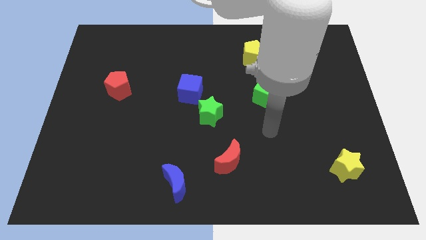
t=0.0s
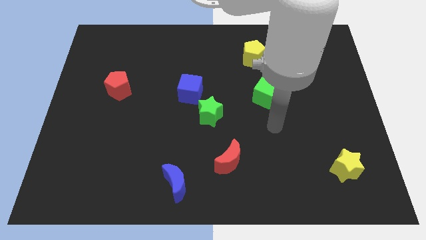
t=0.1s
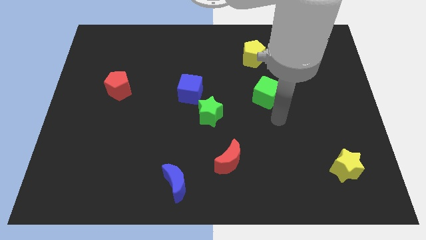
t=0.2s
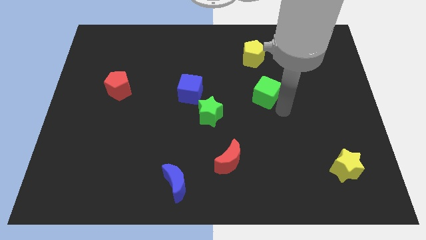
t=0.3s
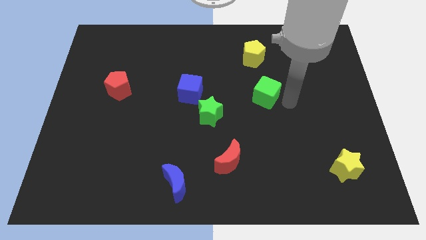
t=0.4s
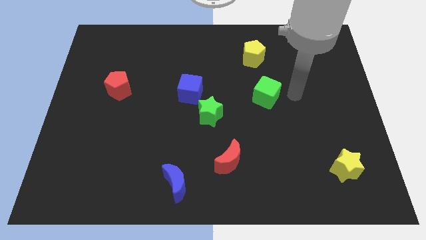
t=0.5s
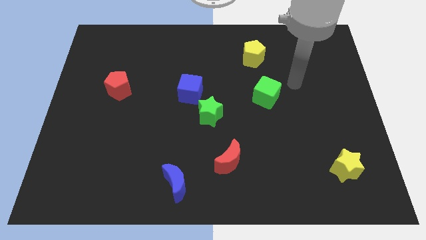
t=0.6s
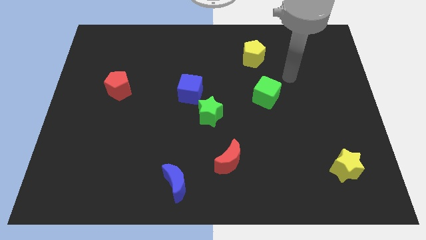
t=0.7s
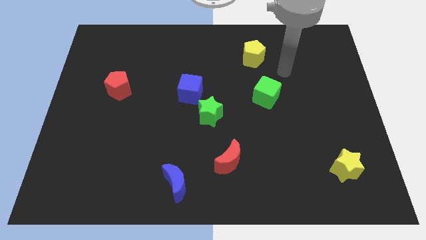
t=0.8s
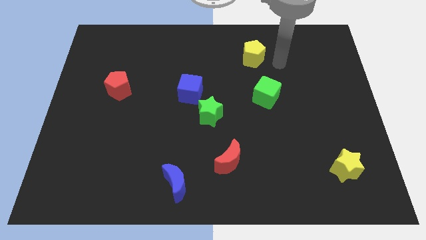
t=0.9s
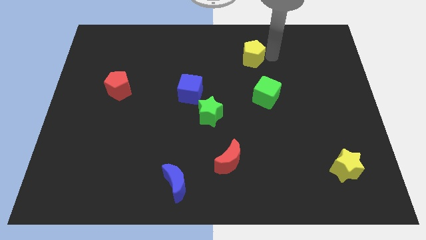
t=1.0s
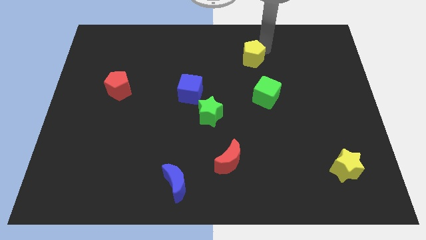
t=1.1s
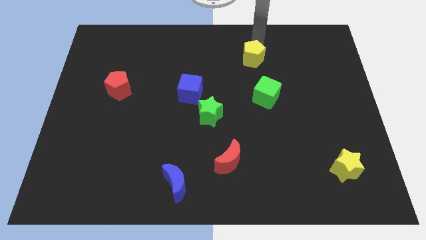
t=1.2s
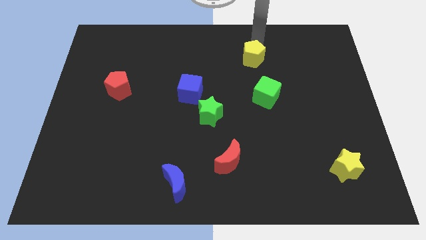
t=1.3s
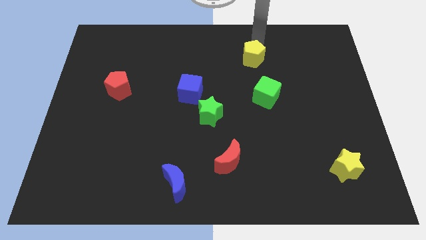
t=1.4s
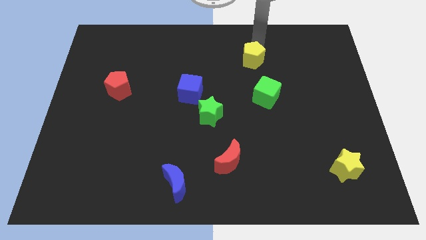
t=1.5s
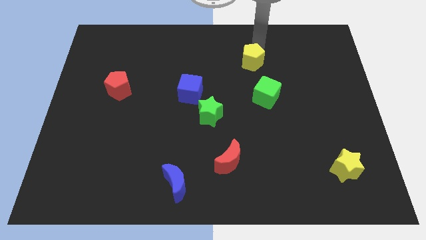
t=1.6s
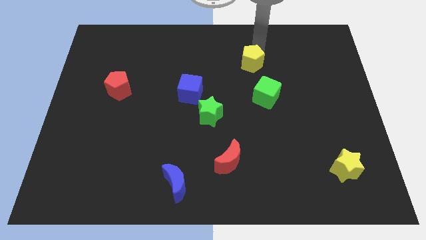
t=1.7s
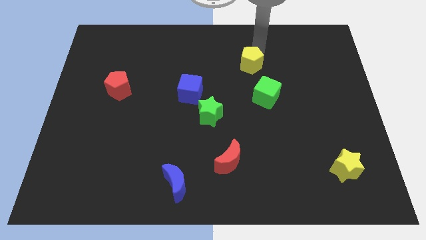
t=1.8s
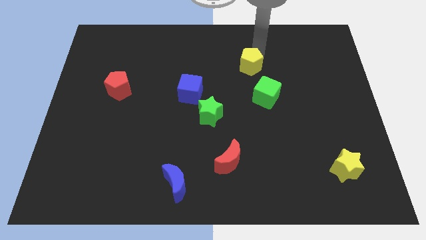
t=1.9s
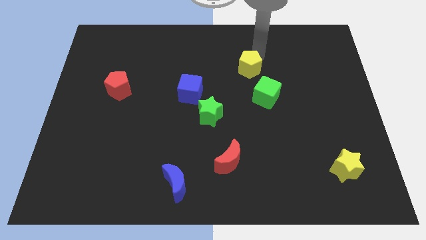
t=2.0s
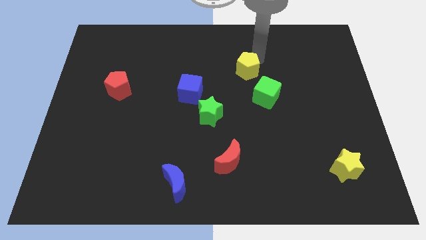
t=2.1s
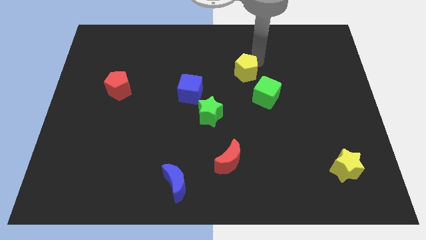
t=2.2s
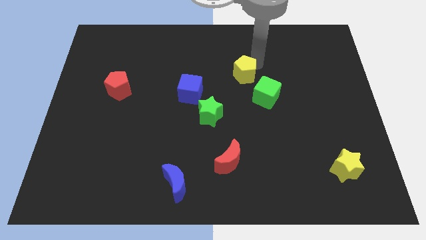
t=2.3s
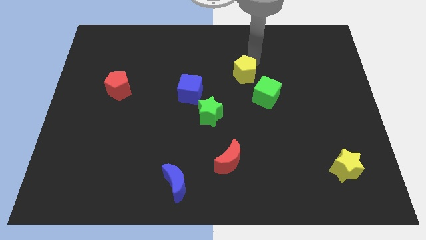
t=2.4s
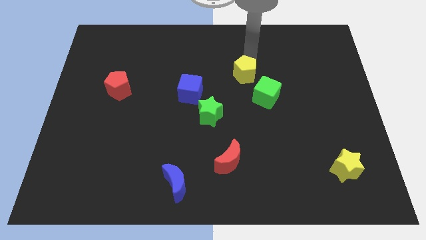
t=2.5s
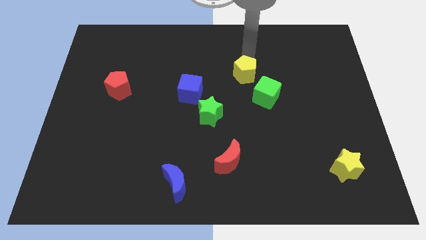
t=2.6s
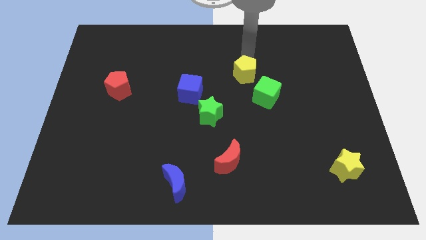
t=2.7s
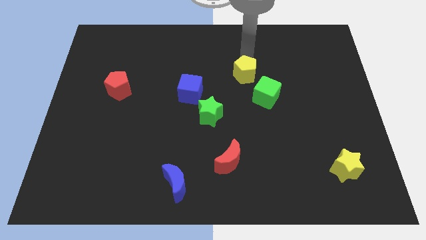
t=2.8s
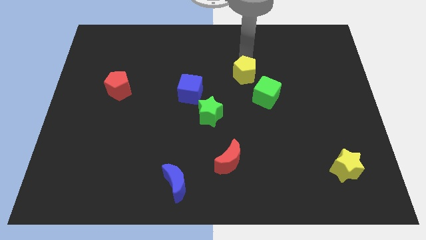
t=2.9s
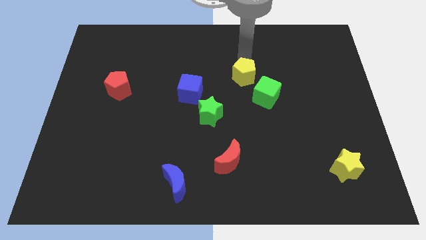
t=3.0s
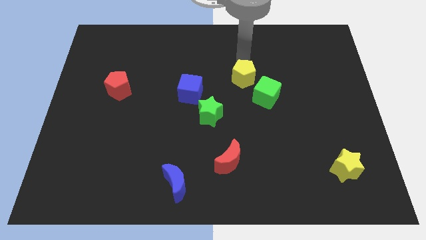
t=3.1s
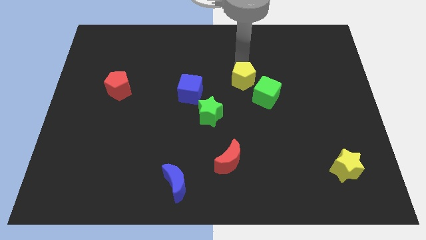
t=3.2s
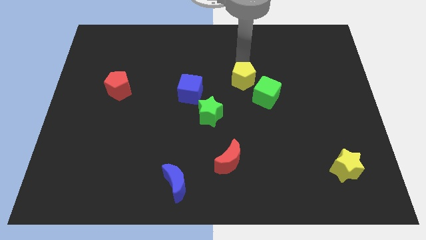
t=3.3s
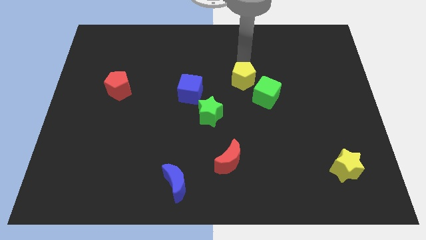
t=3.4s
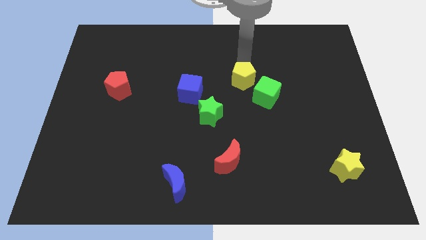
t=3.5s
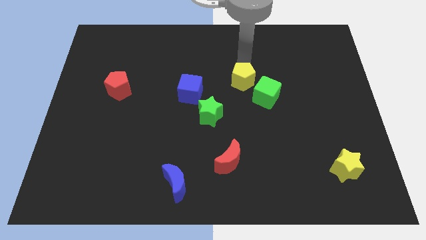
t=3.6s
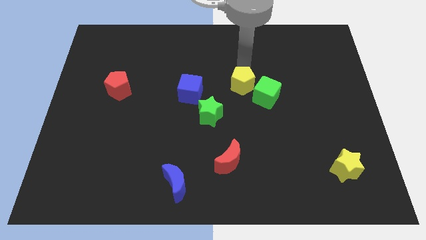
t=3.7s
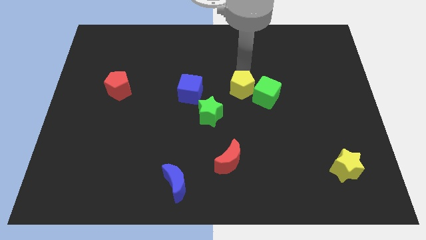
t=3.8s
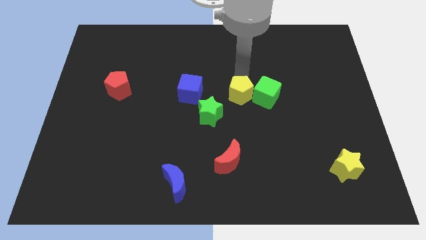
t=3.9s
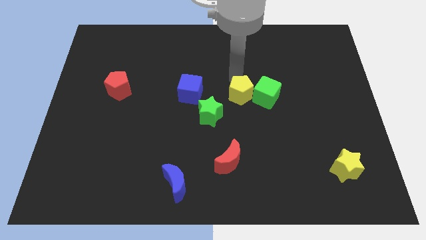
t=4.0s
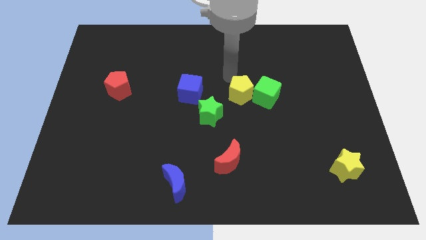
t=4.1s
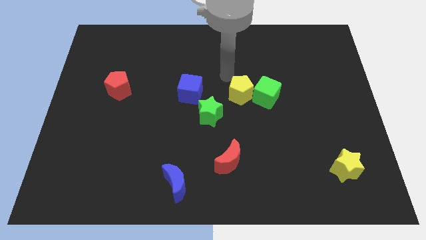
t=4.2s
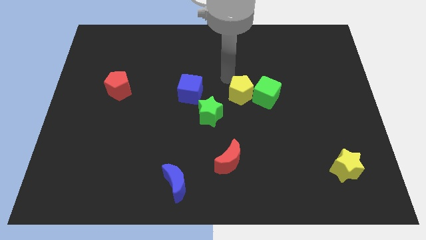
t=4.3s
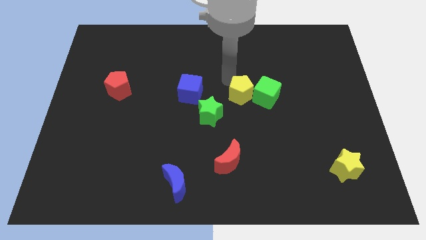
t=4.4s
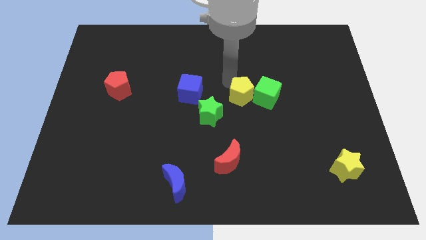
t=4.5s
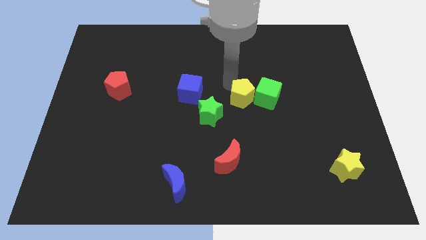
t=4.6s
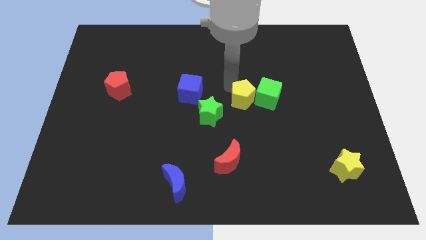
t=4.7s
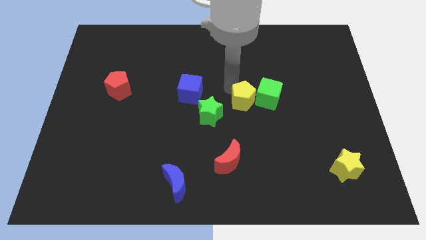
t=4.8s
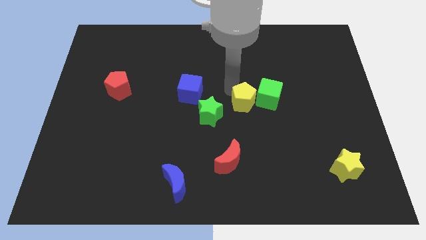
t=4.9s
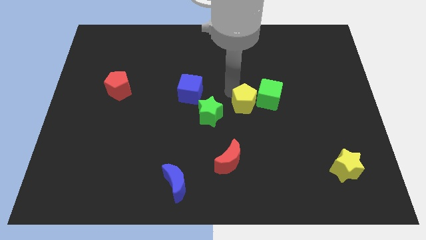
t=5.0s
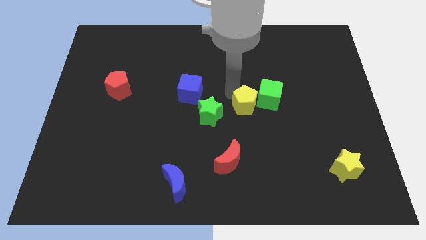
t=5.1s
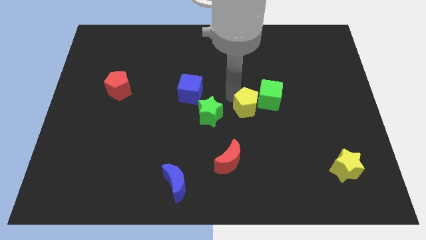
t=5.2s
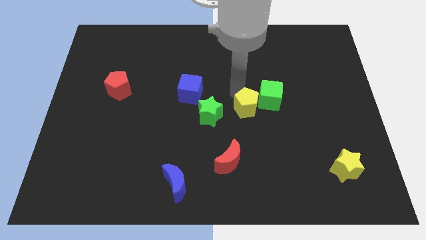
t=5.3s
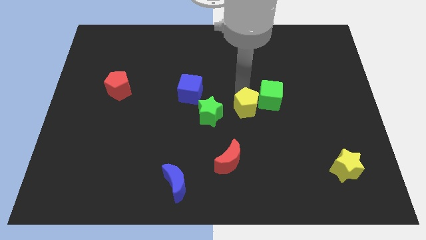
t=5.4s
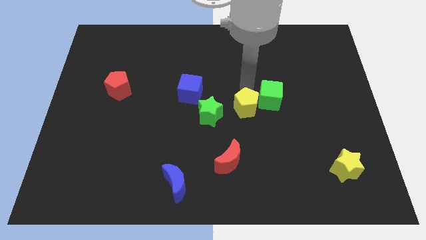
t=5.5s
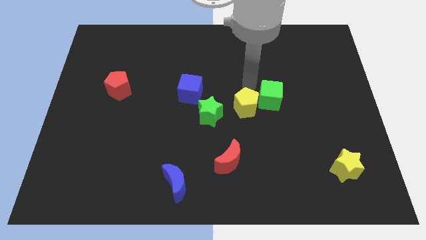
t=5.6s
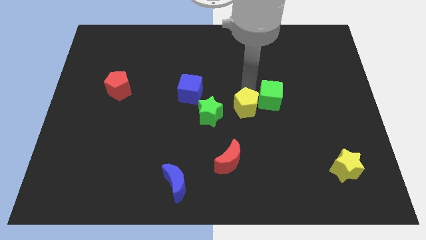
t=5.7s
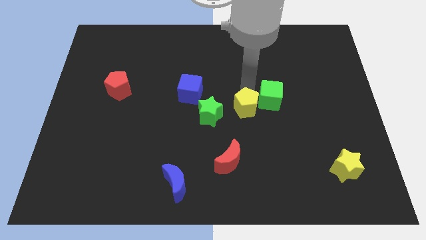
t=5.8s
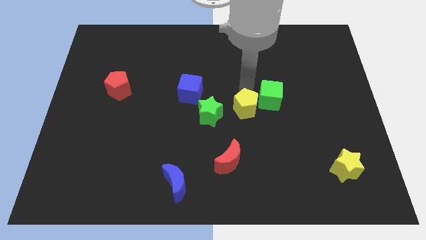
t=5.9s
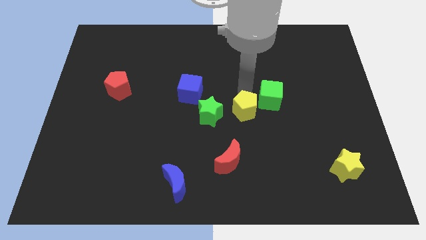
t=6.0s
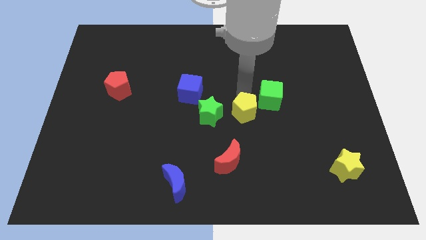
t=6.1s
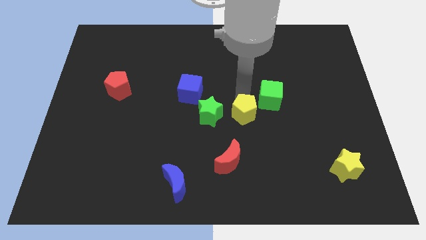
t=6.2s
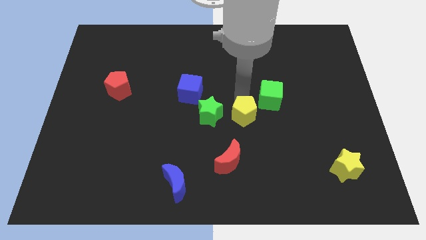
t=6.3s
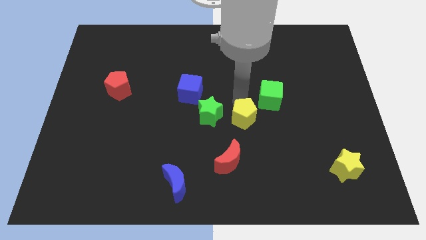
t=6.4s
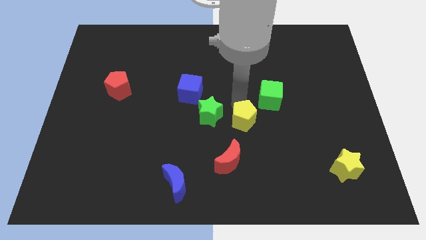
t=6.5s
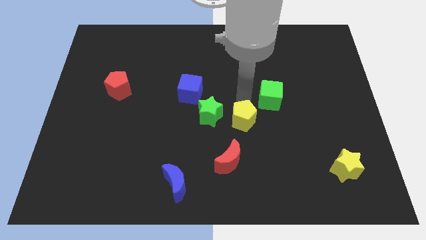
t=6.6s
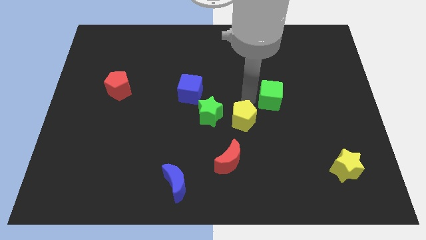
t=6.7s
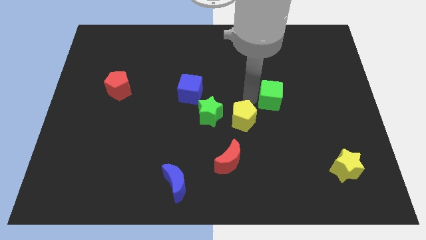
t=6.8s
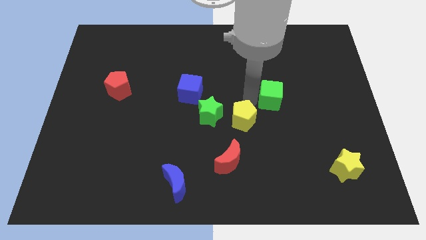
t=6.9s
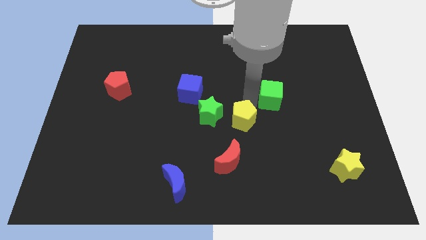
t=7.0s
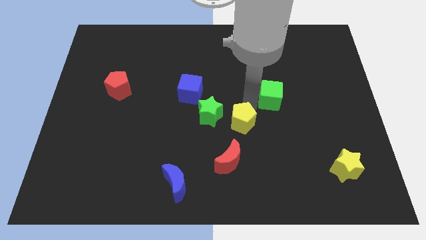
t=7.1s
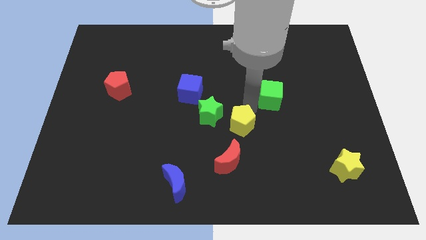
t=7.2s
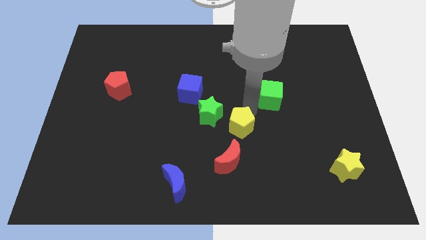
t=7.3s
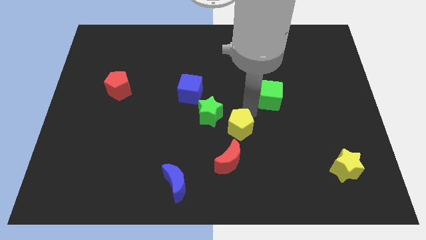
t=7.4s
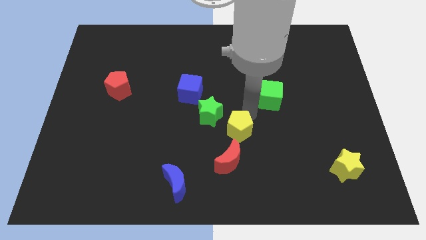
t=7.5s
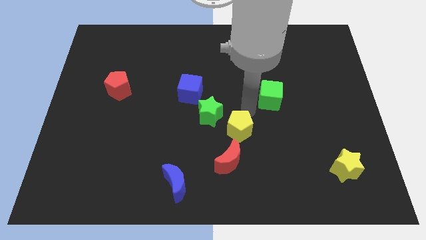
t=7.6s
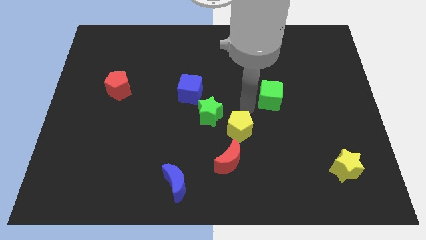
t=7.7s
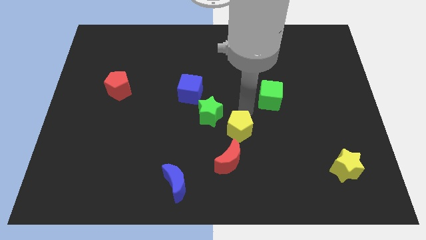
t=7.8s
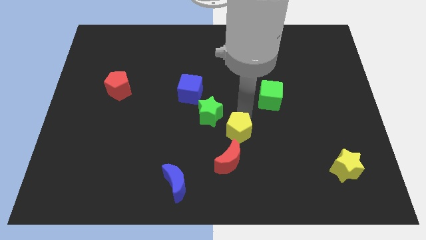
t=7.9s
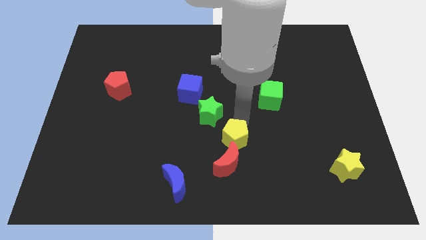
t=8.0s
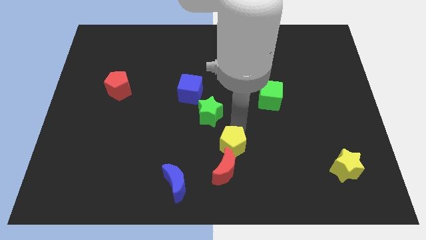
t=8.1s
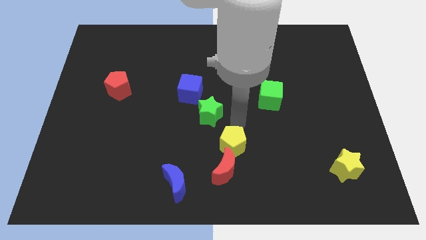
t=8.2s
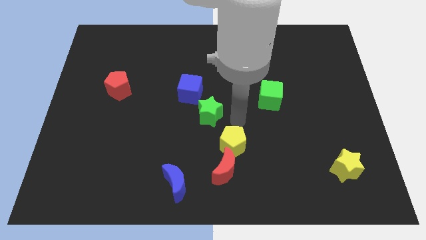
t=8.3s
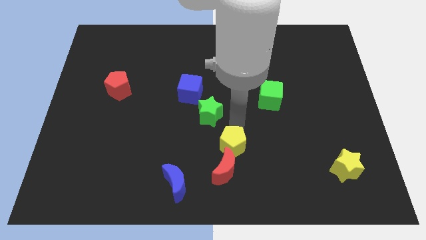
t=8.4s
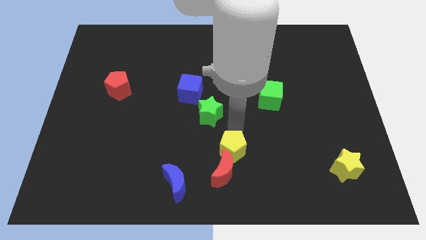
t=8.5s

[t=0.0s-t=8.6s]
push the yellow pentagon close to the red moon
